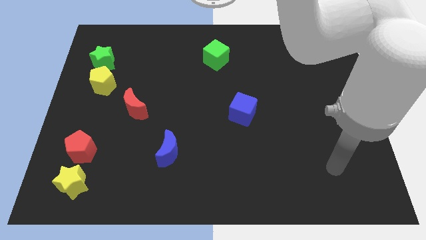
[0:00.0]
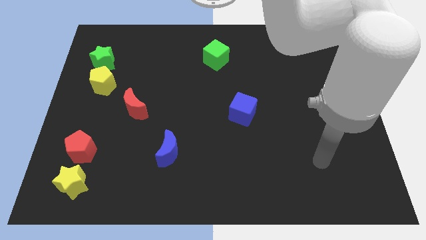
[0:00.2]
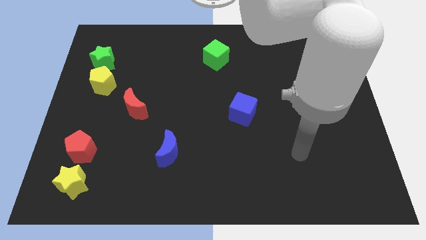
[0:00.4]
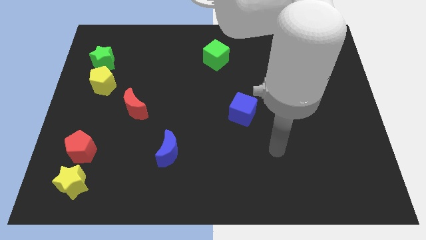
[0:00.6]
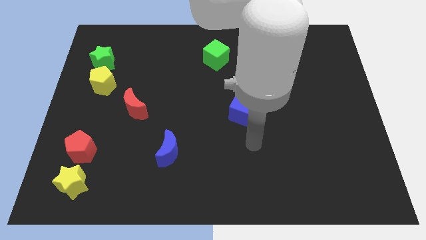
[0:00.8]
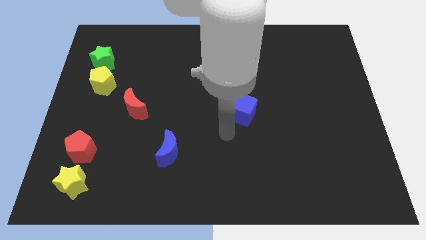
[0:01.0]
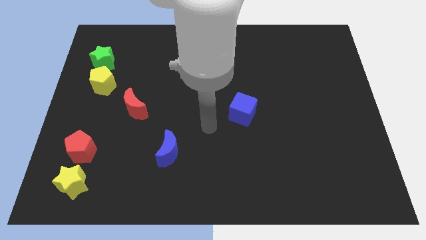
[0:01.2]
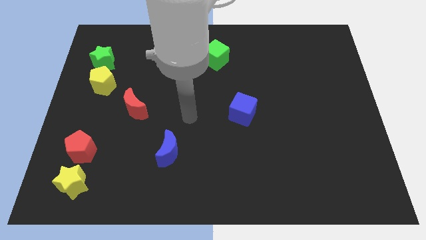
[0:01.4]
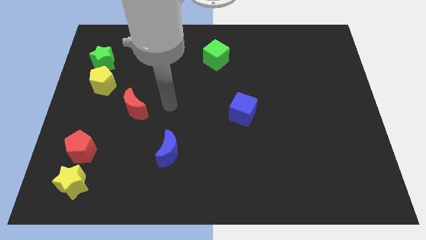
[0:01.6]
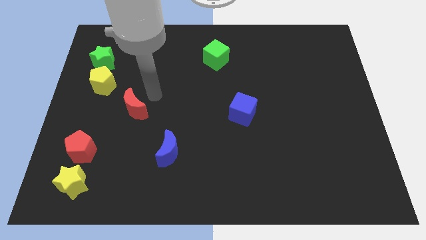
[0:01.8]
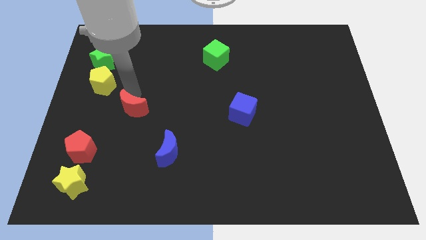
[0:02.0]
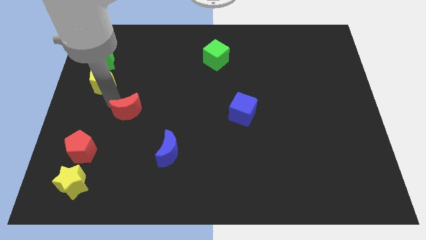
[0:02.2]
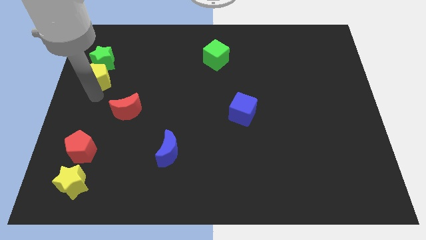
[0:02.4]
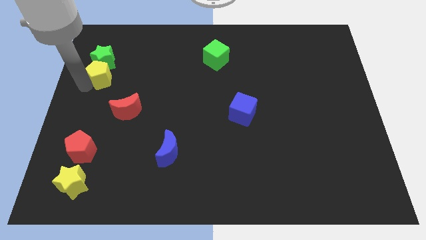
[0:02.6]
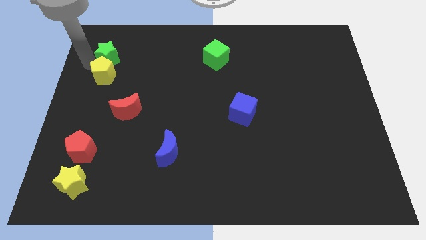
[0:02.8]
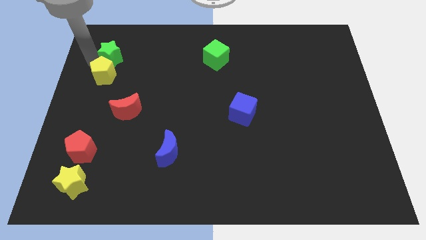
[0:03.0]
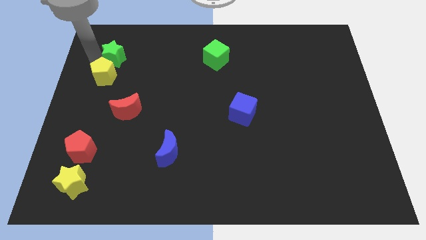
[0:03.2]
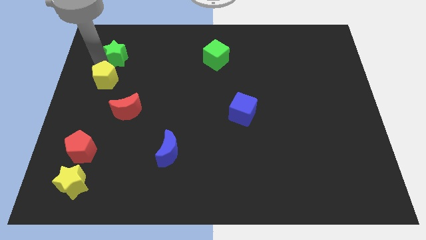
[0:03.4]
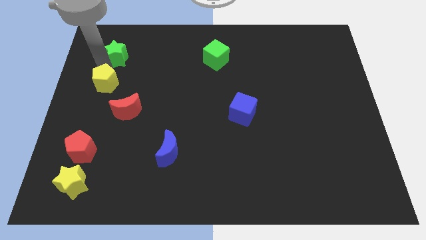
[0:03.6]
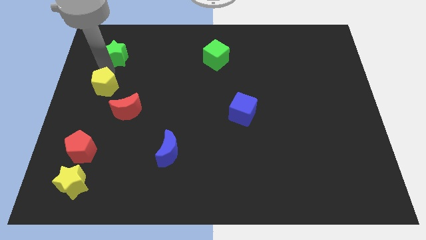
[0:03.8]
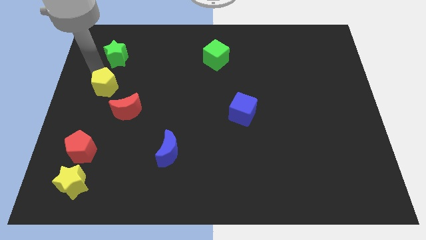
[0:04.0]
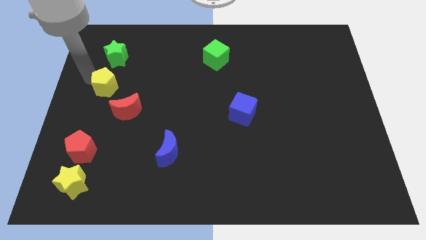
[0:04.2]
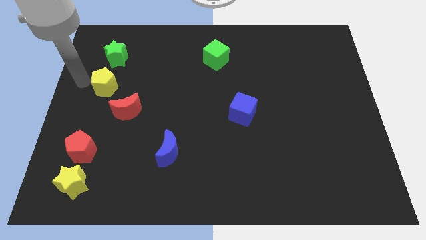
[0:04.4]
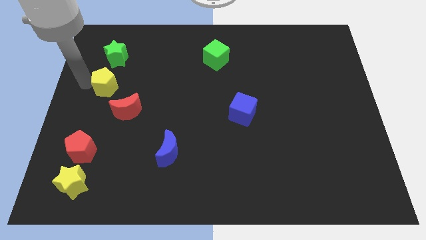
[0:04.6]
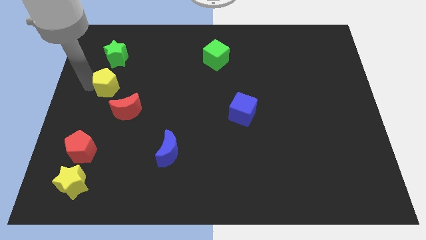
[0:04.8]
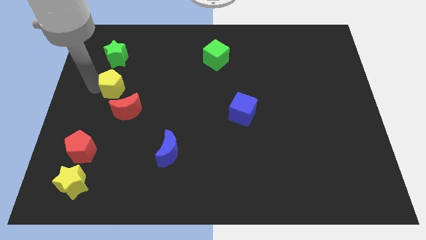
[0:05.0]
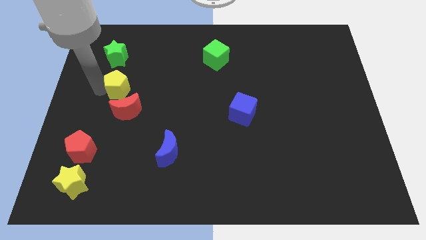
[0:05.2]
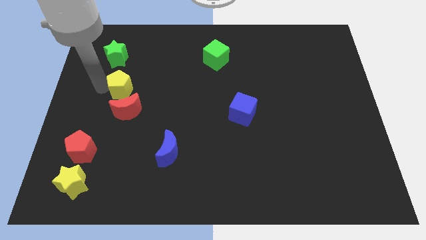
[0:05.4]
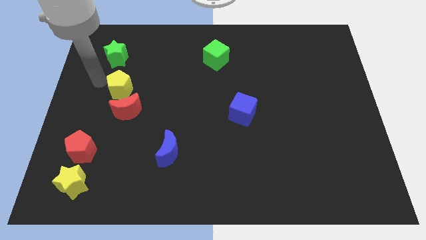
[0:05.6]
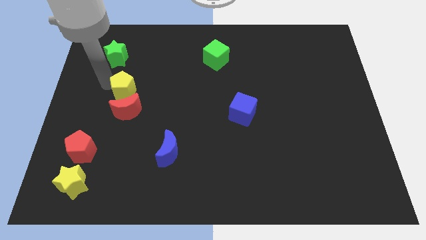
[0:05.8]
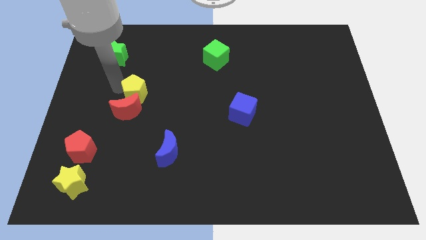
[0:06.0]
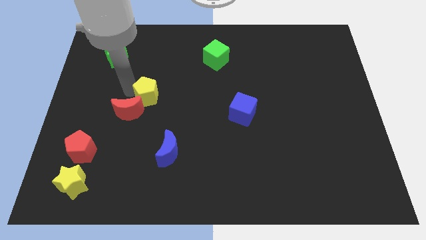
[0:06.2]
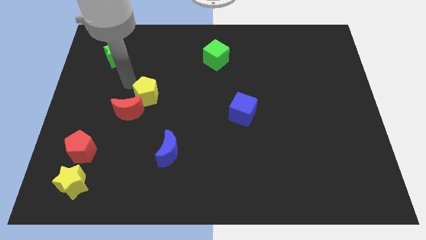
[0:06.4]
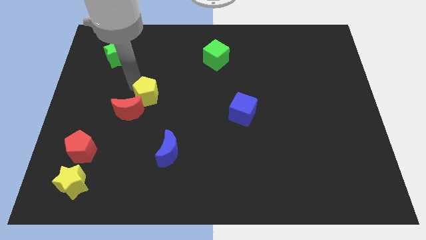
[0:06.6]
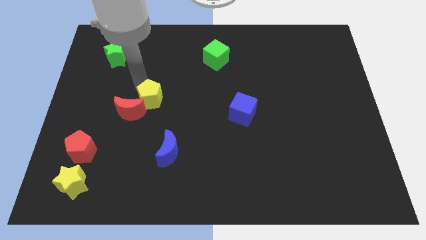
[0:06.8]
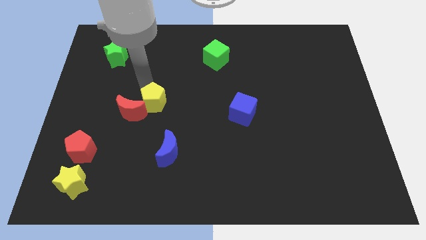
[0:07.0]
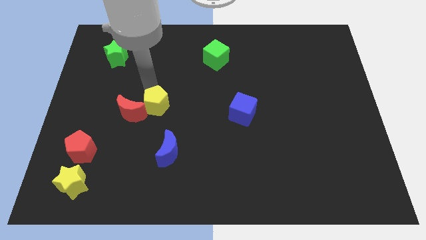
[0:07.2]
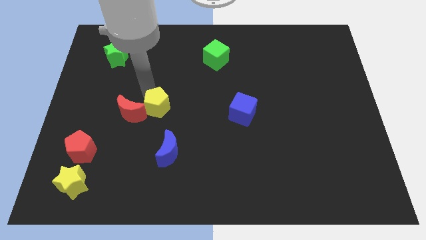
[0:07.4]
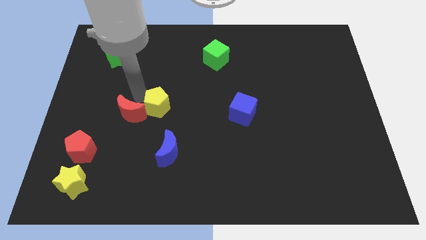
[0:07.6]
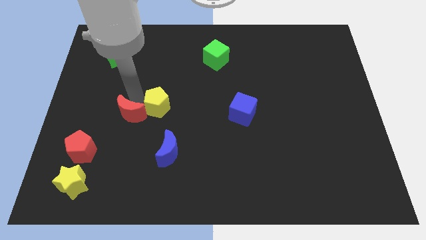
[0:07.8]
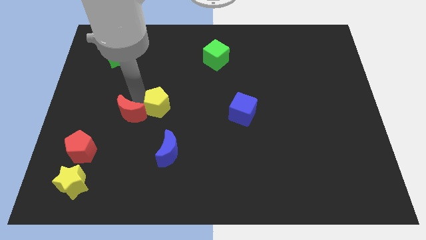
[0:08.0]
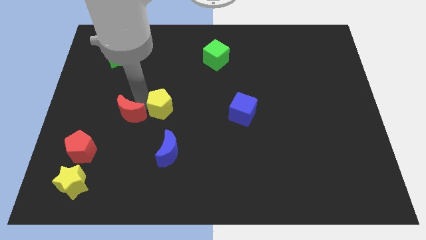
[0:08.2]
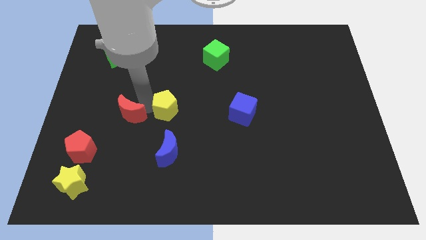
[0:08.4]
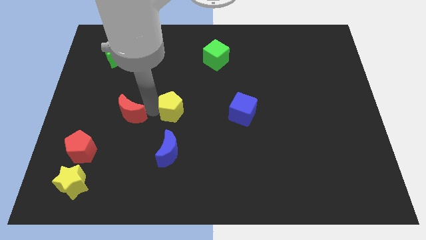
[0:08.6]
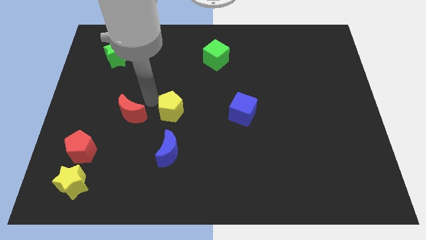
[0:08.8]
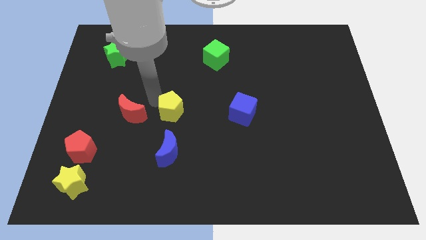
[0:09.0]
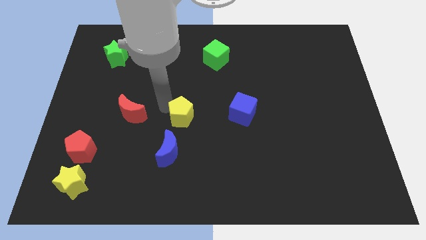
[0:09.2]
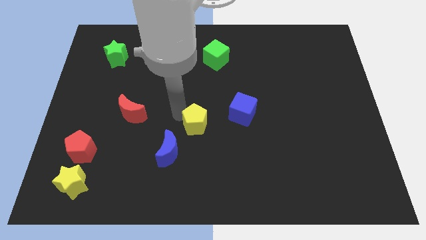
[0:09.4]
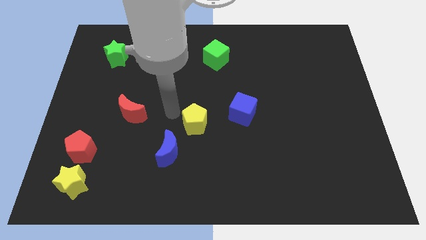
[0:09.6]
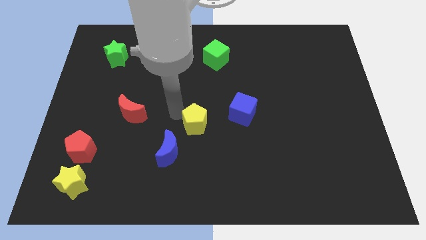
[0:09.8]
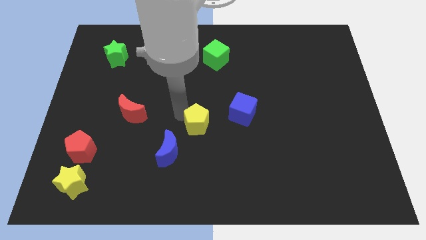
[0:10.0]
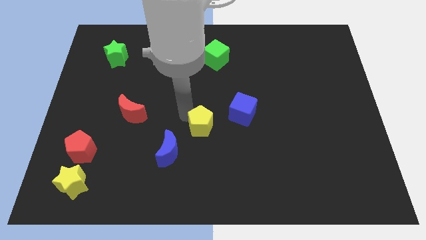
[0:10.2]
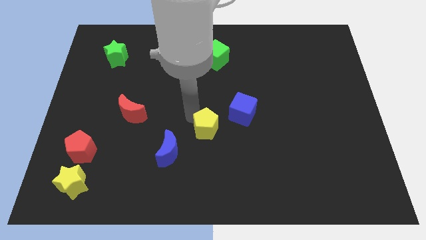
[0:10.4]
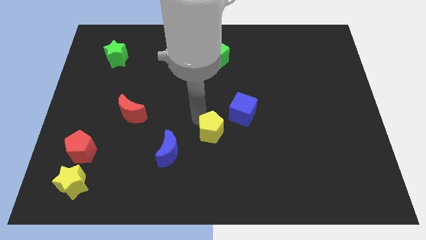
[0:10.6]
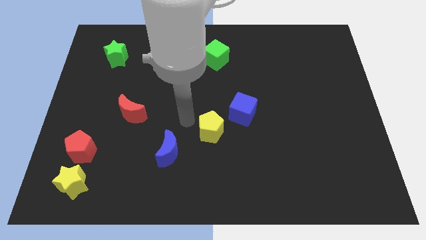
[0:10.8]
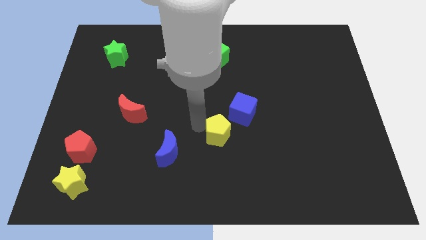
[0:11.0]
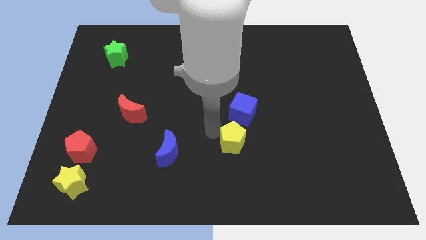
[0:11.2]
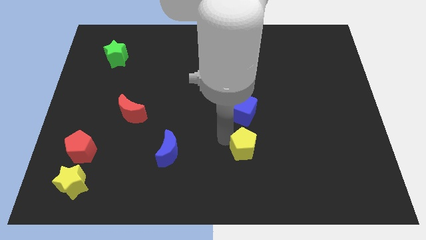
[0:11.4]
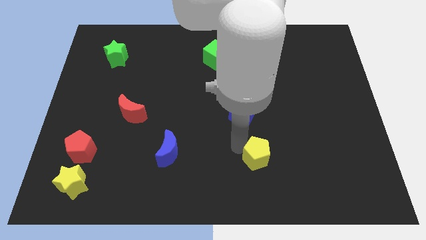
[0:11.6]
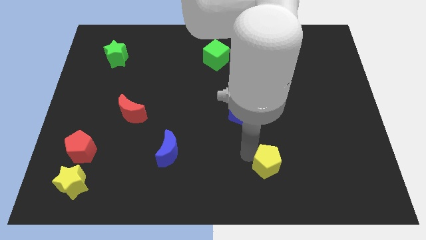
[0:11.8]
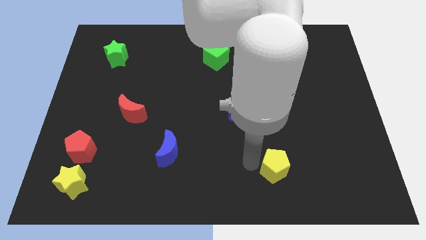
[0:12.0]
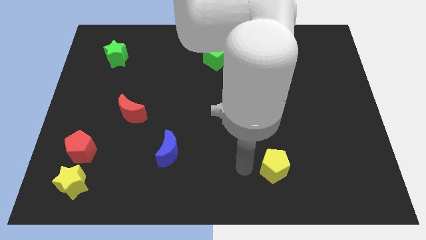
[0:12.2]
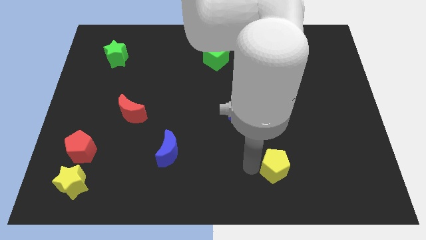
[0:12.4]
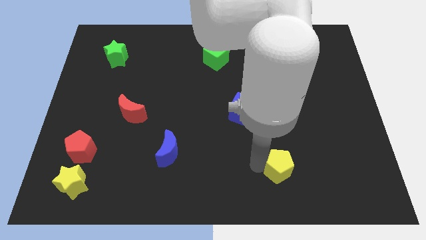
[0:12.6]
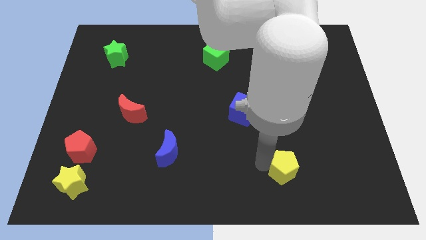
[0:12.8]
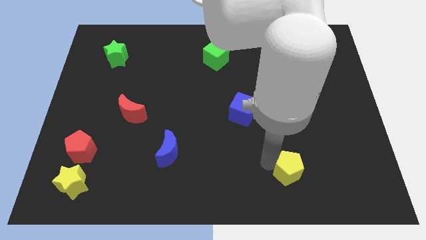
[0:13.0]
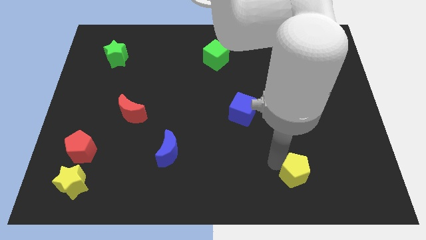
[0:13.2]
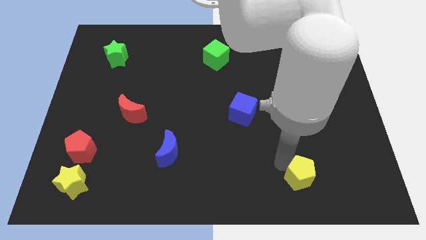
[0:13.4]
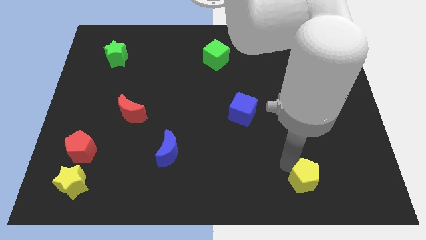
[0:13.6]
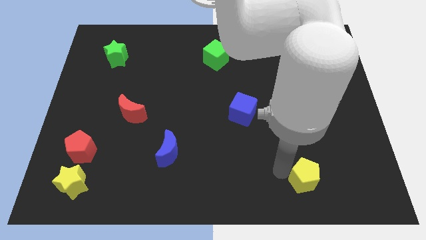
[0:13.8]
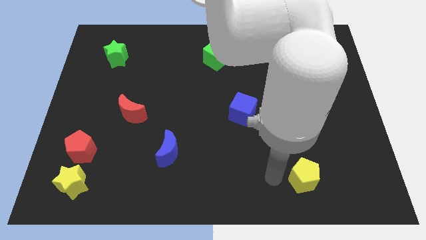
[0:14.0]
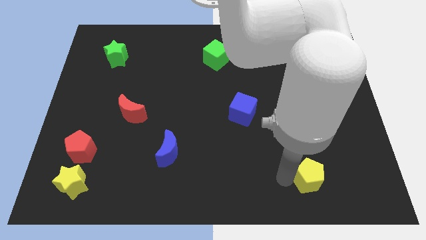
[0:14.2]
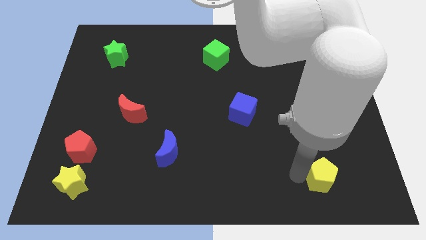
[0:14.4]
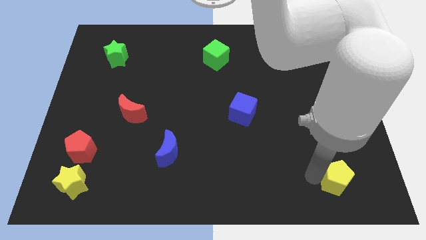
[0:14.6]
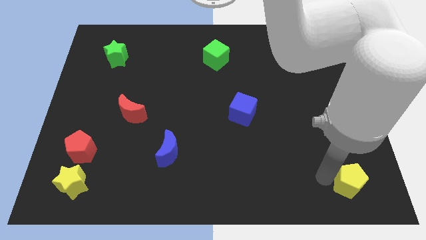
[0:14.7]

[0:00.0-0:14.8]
push the yellow pentagon to the bottom right
